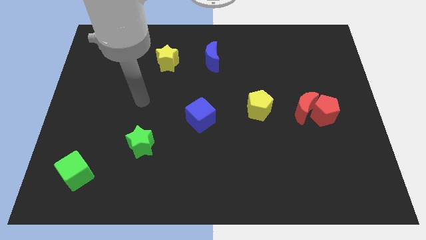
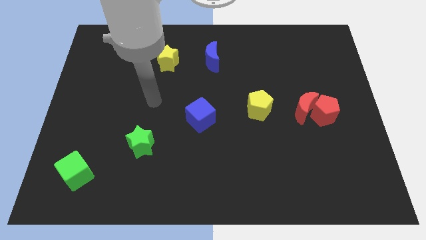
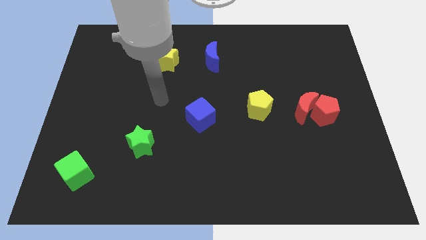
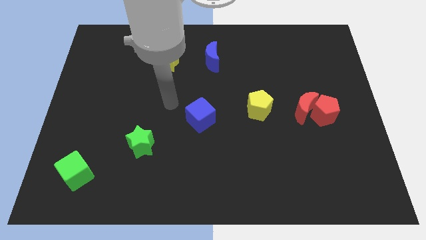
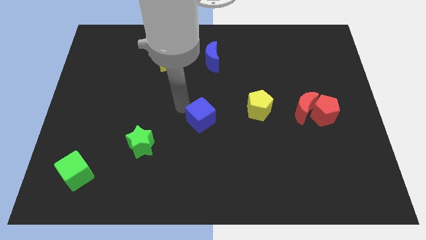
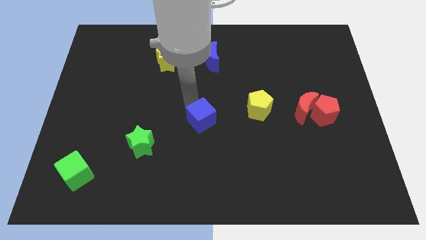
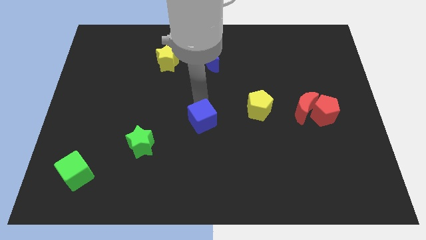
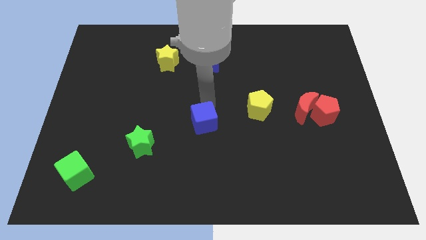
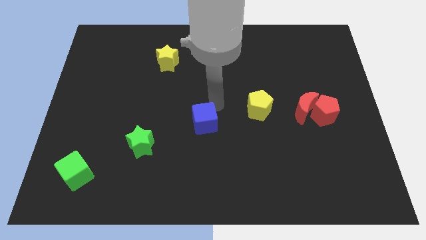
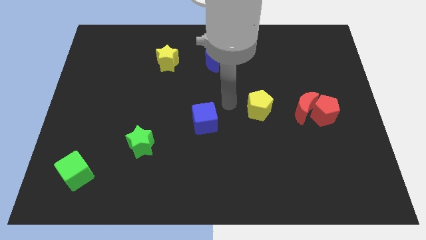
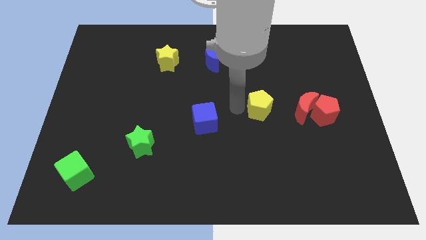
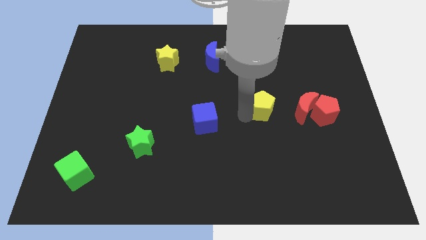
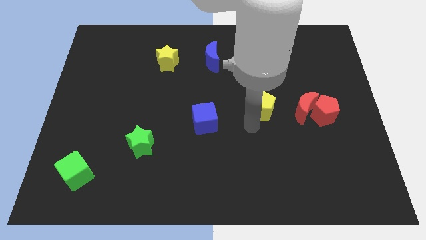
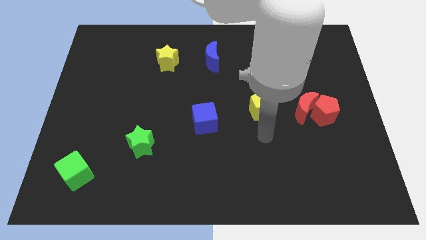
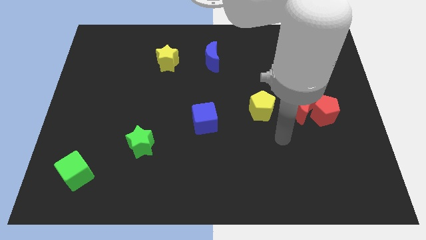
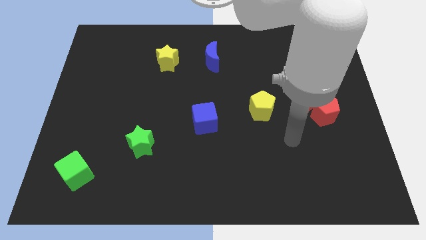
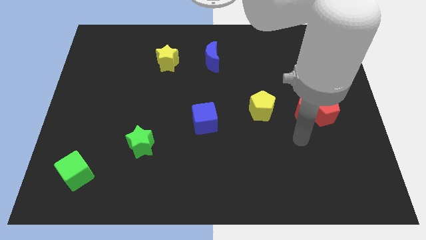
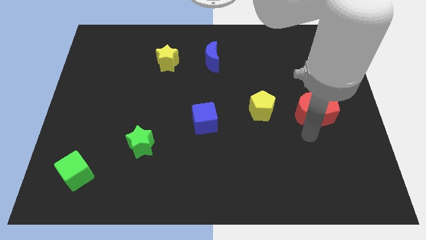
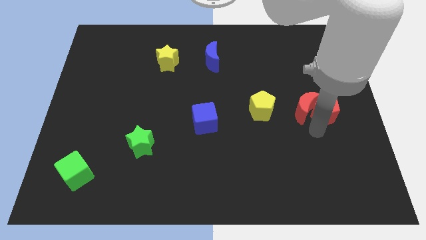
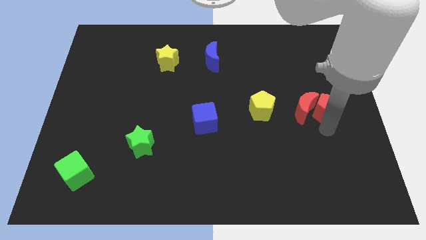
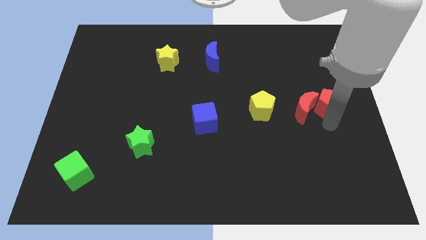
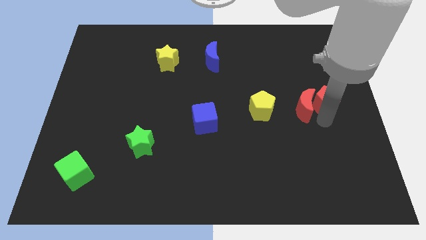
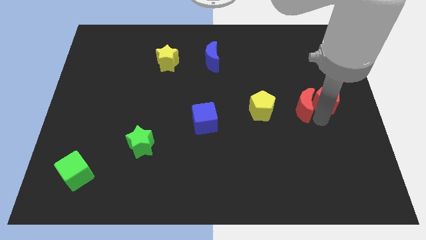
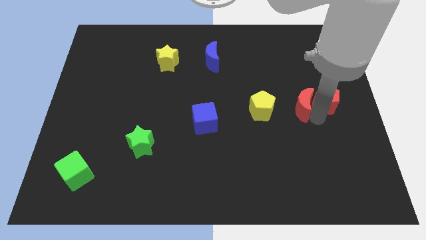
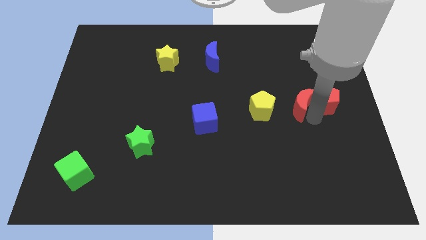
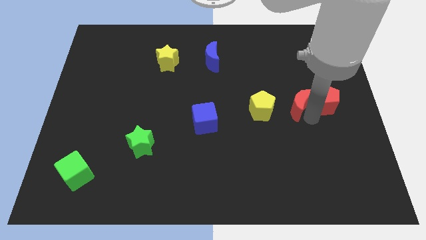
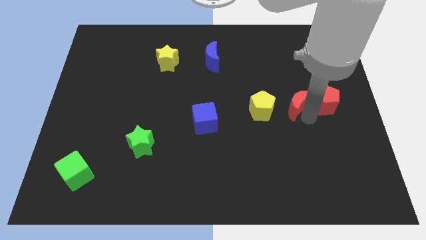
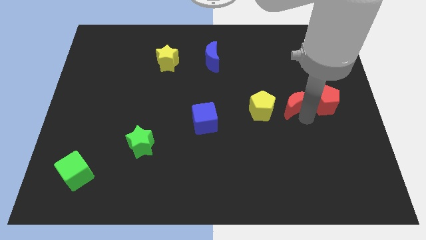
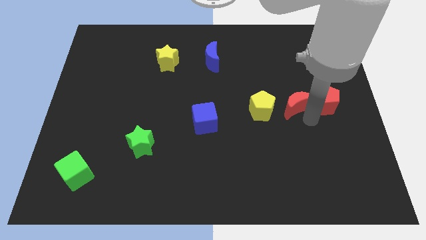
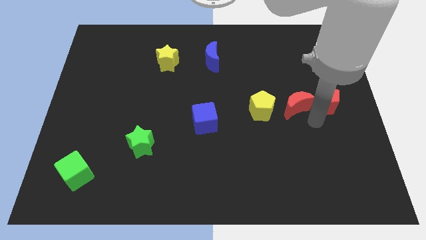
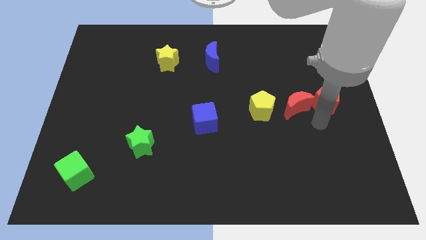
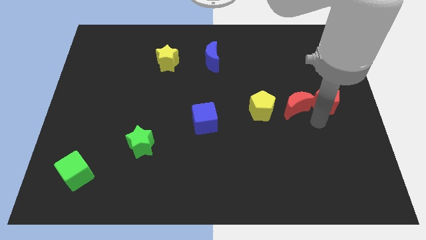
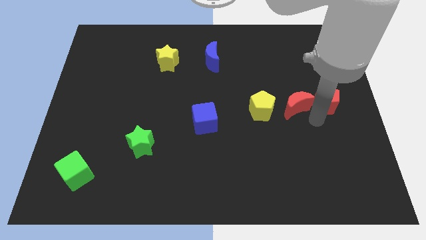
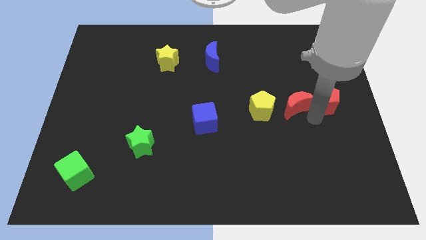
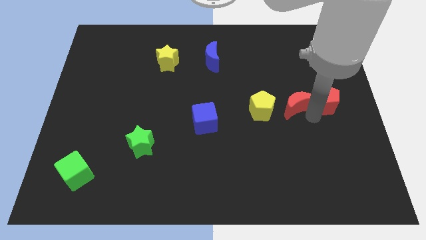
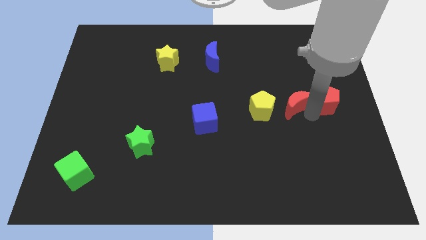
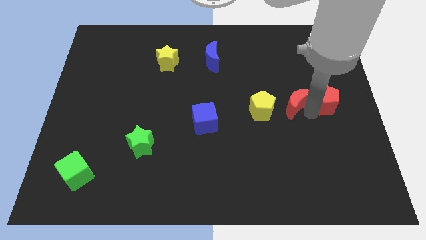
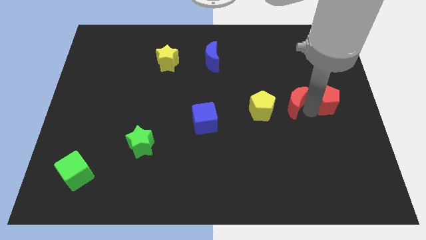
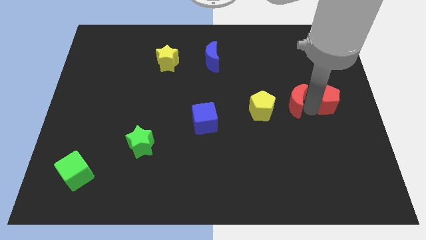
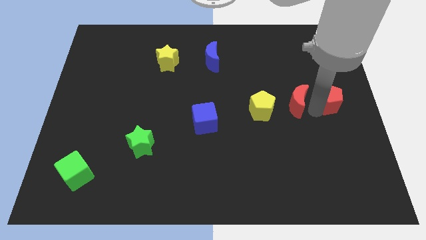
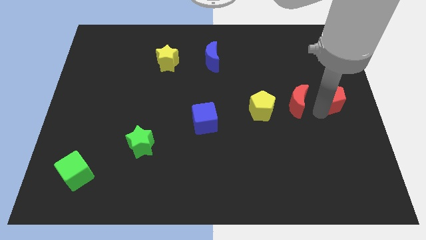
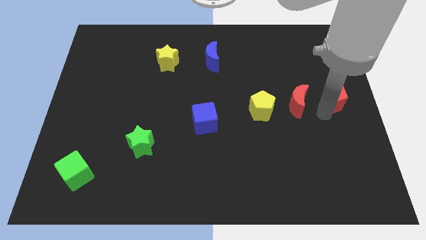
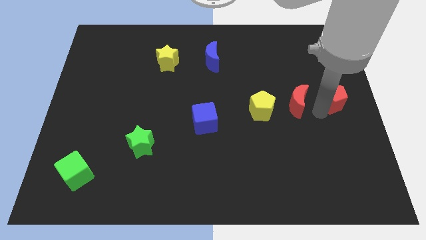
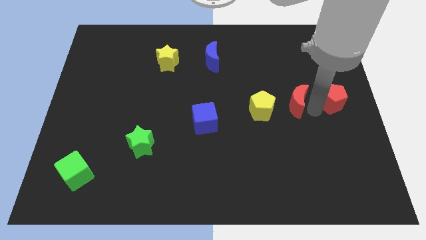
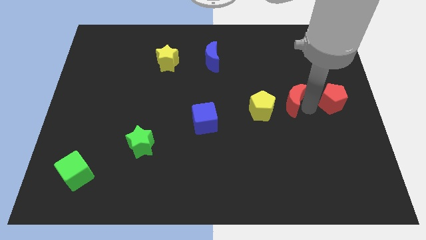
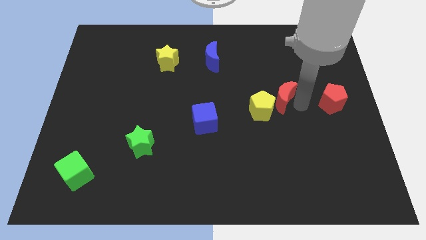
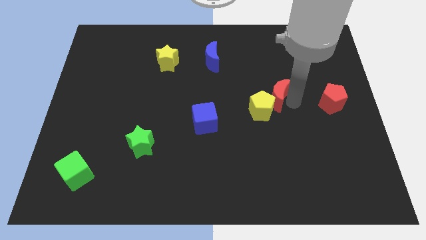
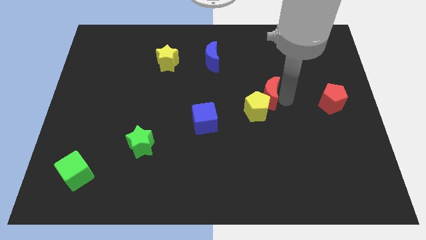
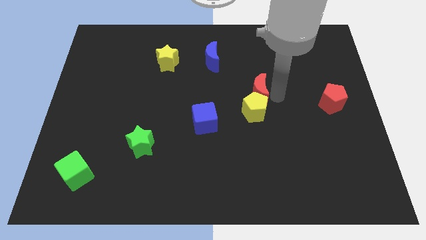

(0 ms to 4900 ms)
put the red moon to the center

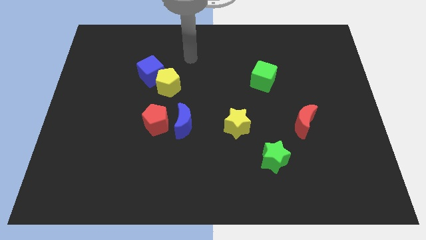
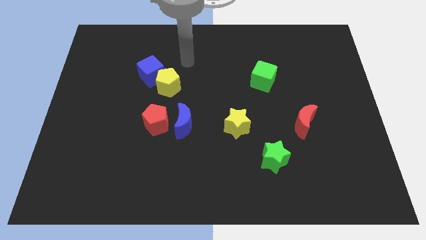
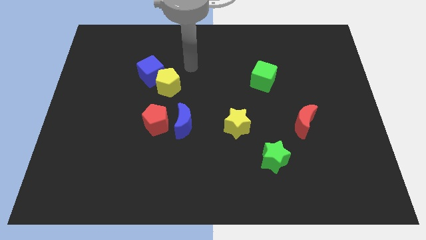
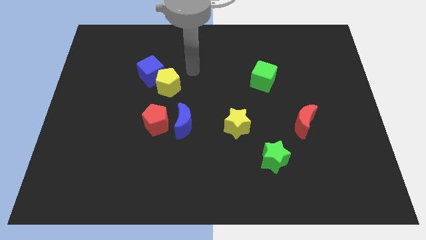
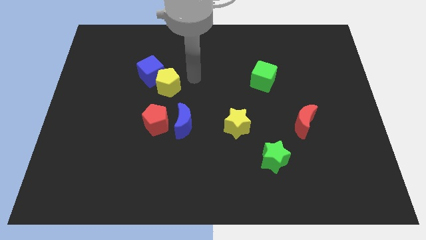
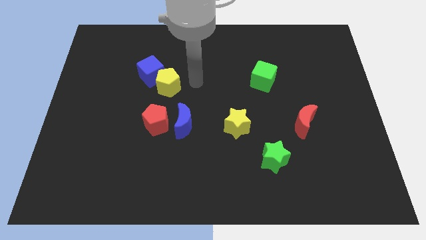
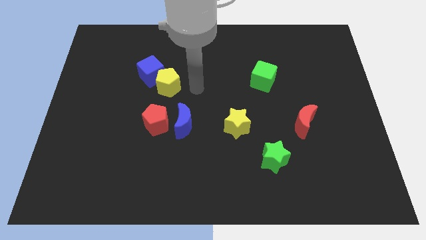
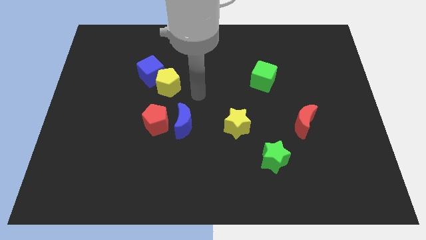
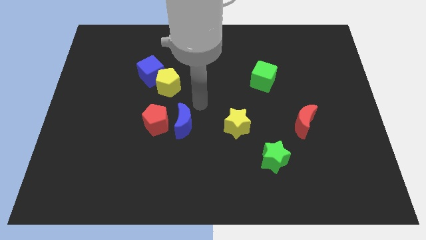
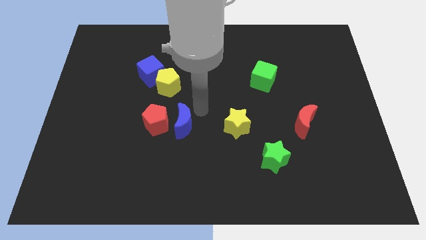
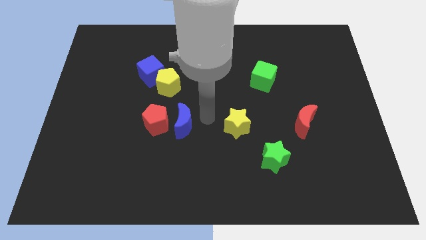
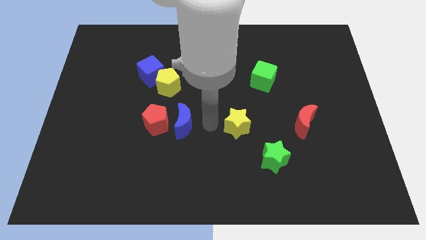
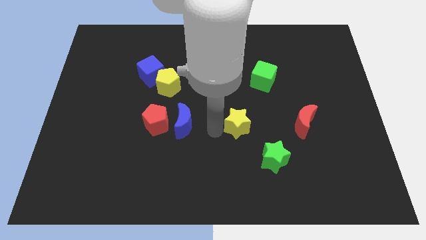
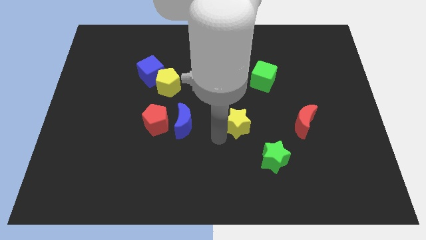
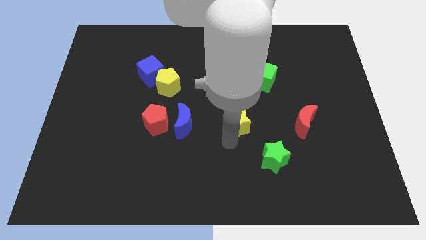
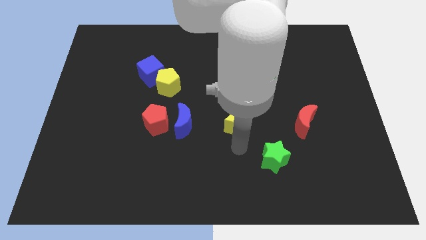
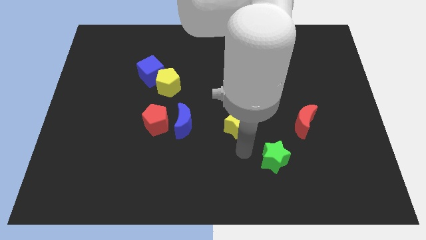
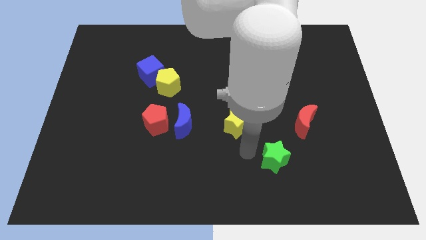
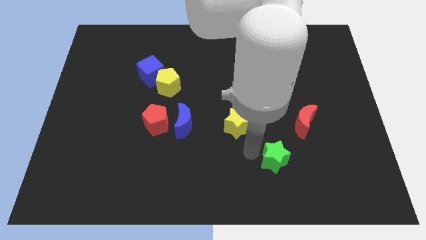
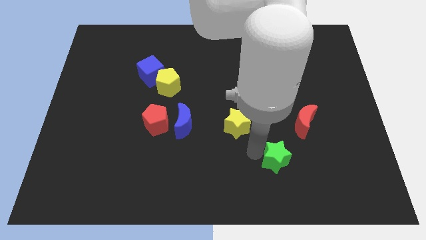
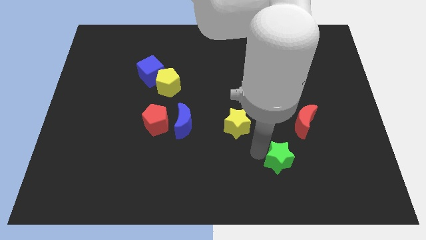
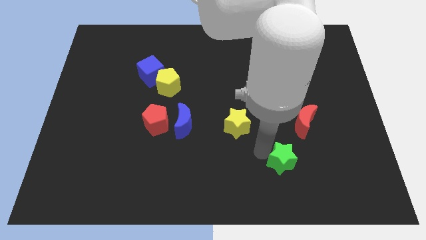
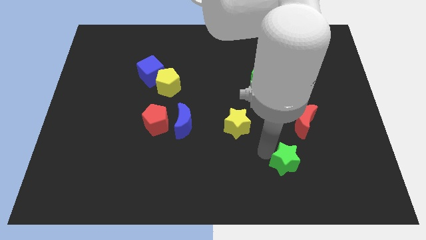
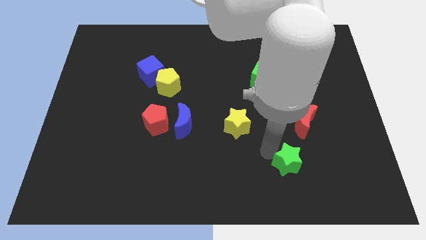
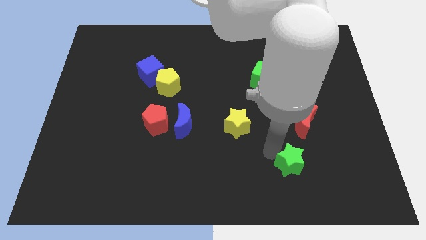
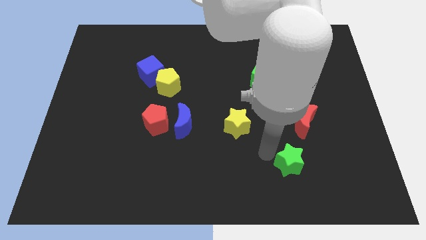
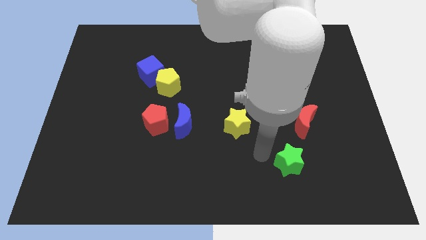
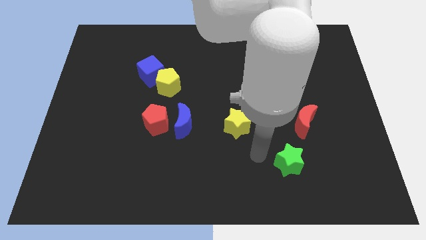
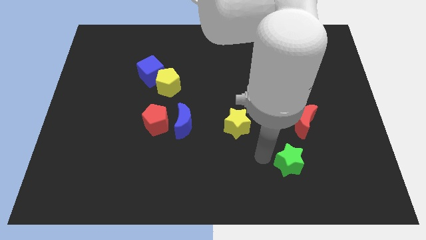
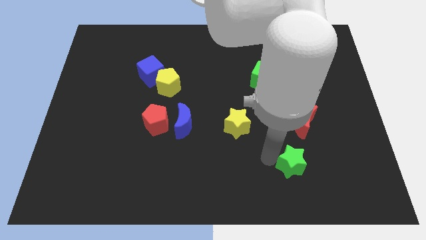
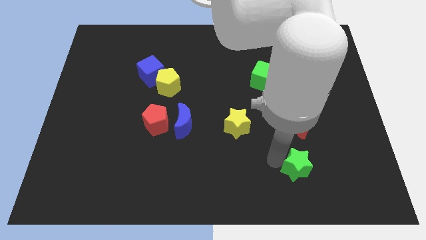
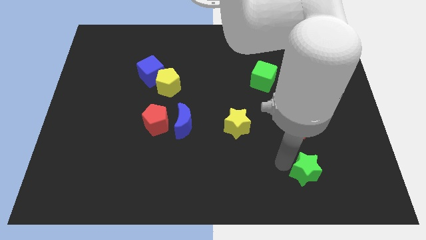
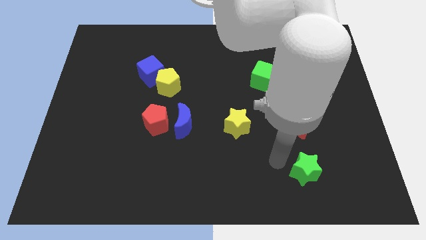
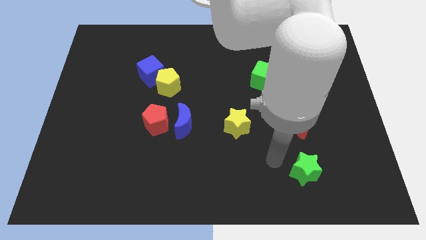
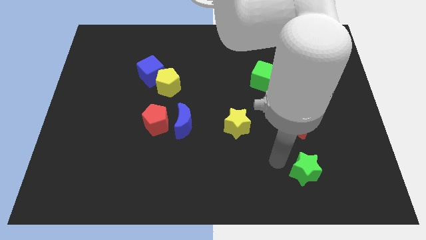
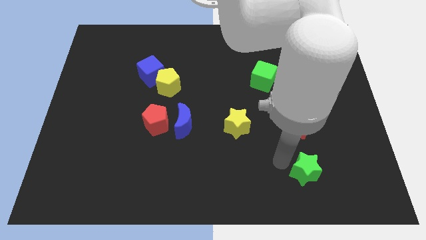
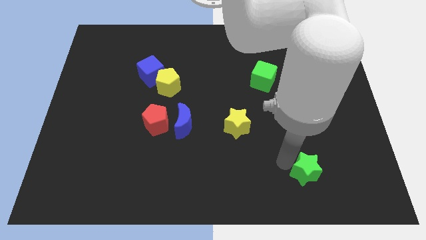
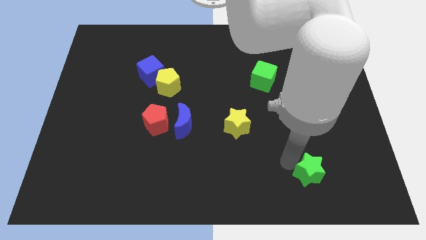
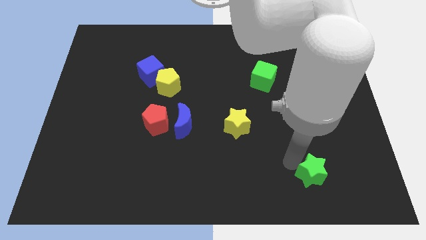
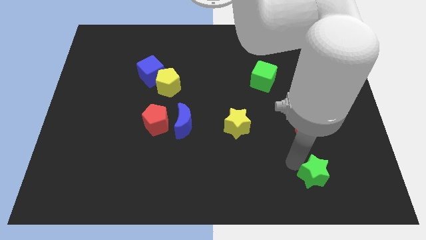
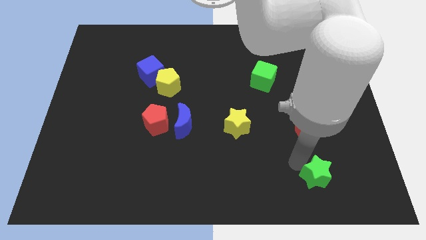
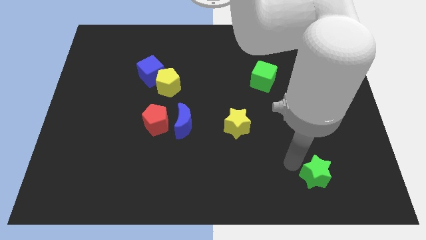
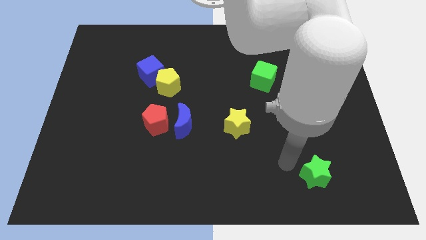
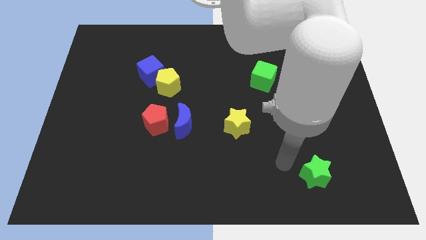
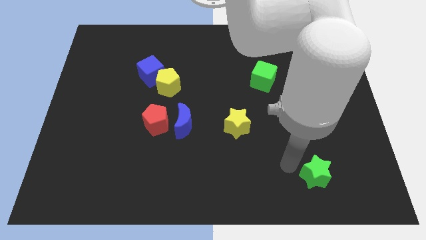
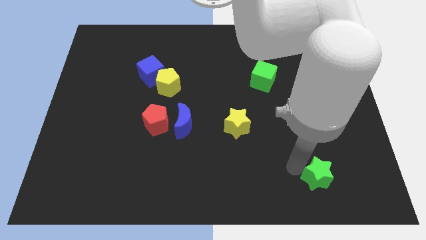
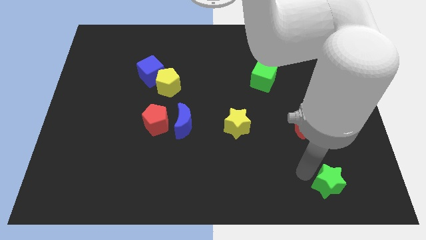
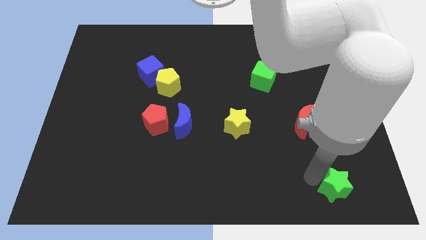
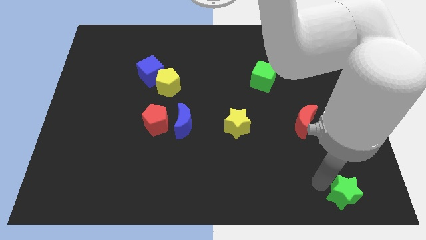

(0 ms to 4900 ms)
move the green star to the bottom right corner
